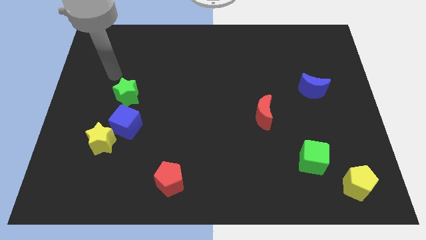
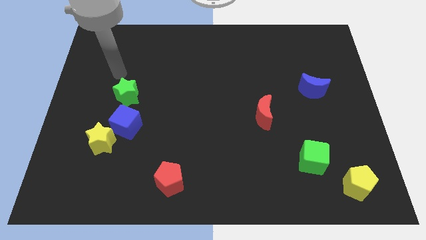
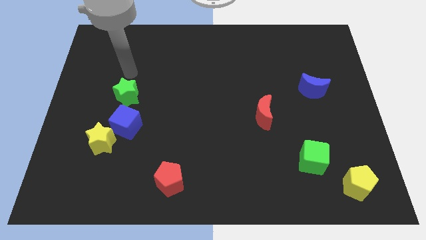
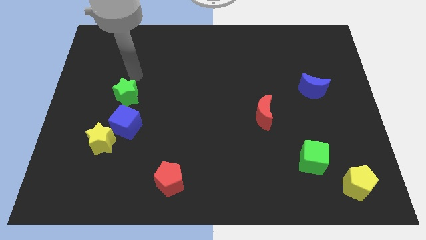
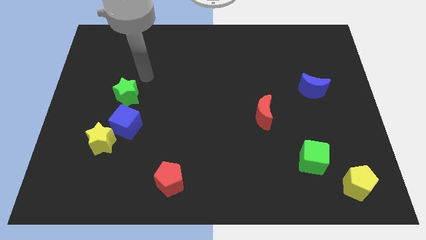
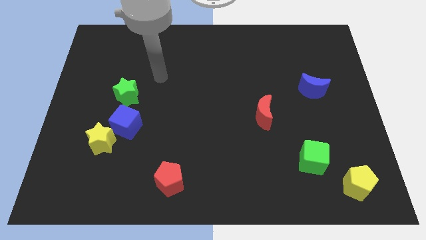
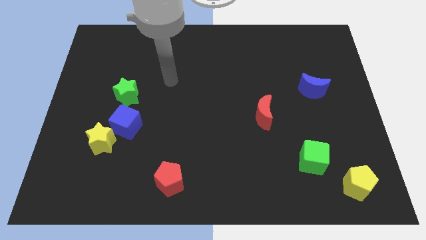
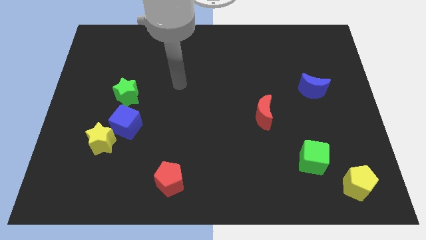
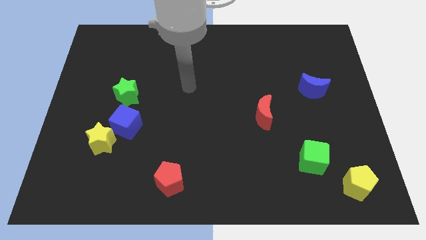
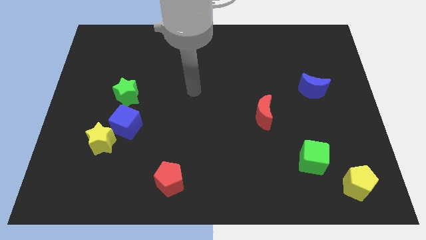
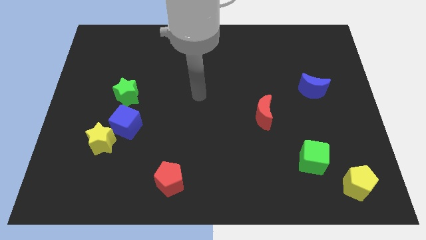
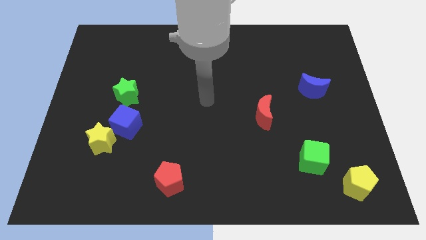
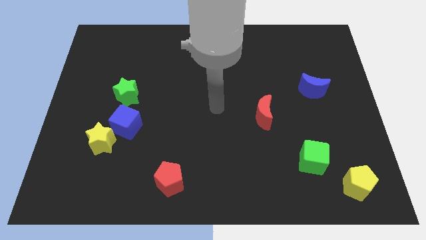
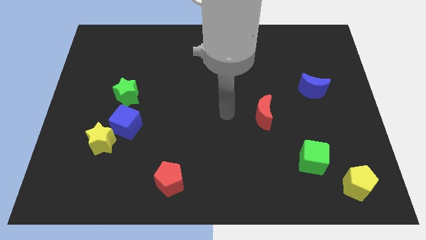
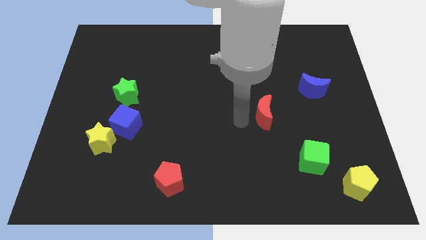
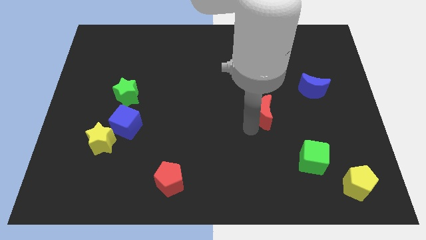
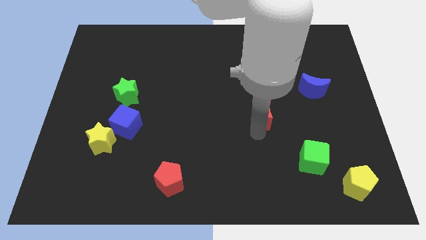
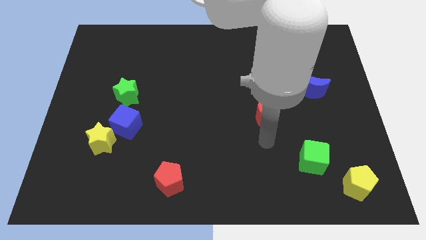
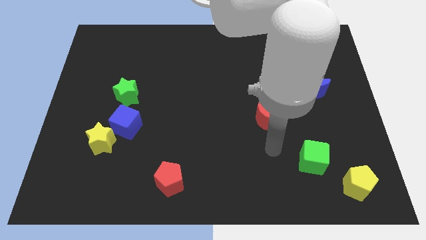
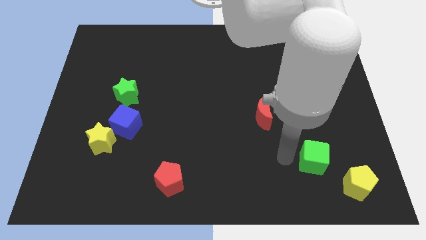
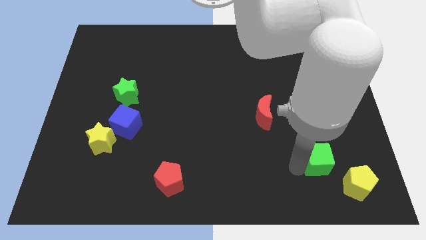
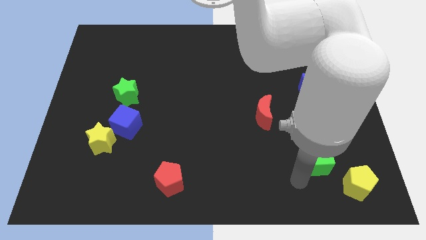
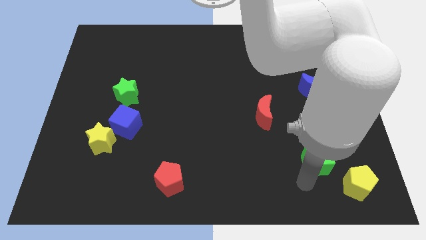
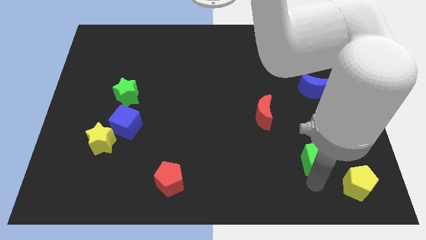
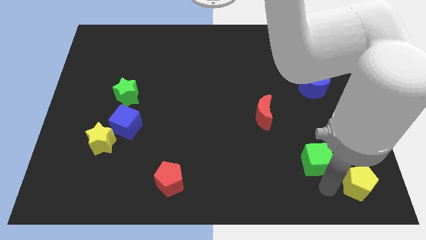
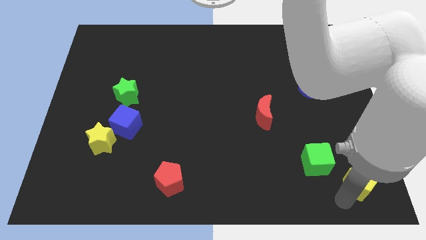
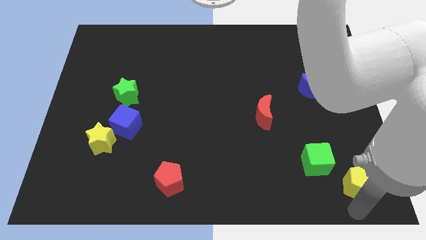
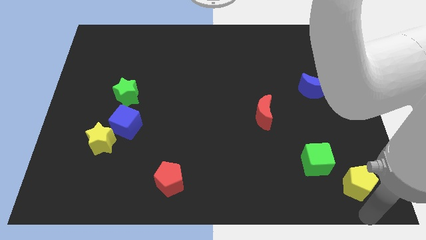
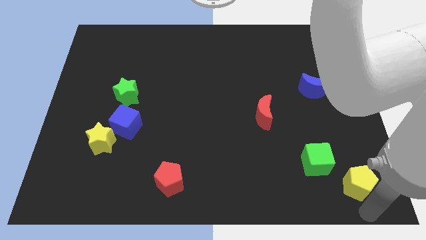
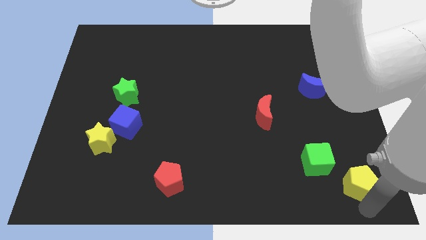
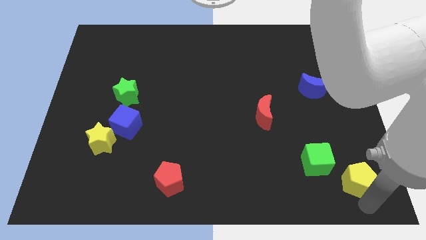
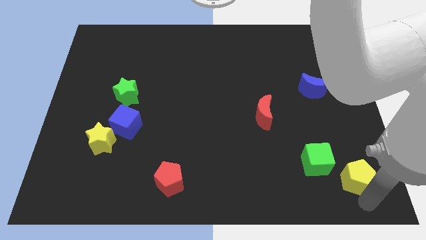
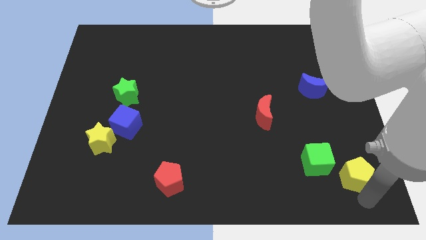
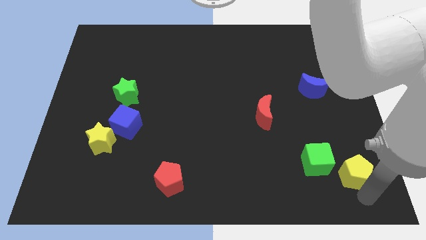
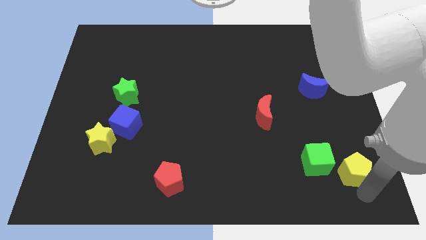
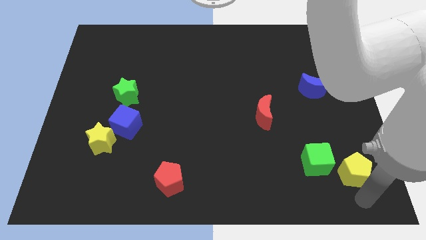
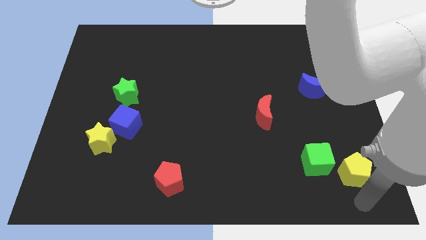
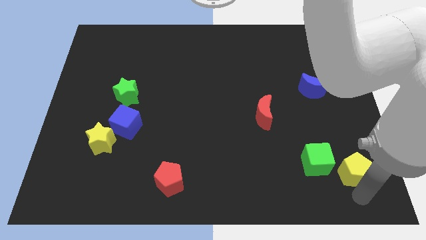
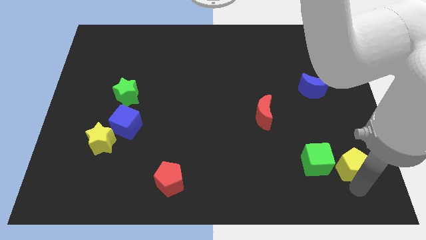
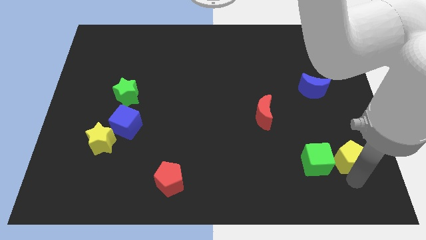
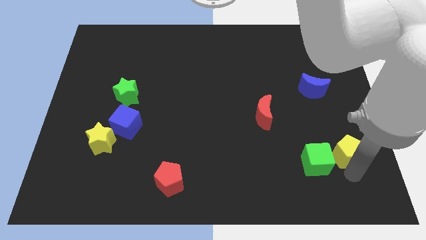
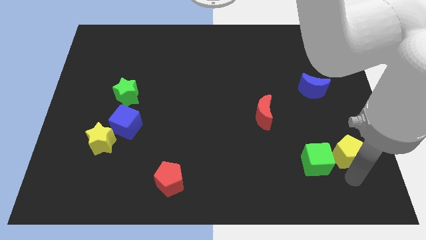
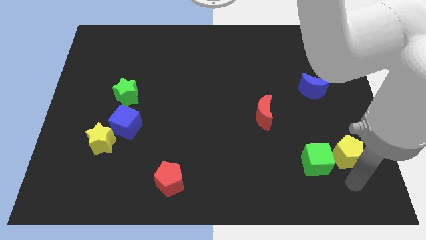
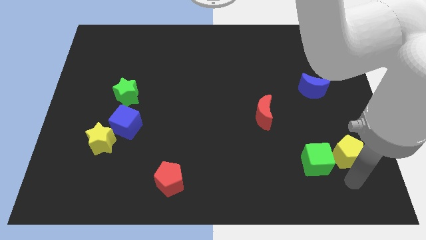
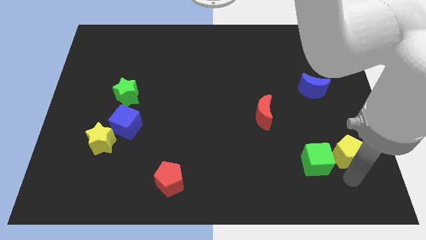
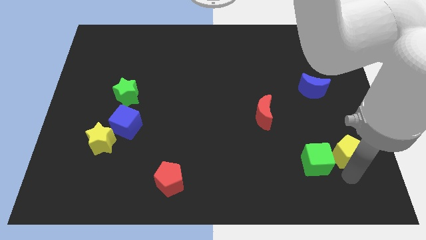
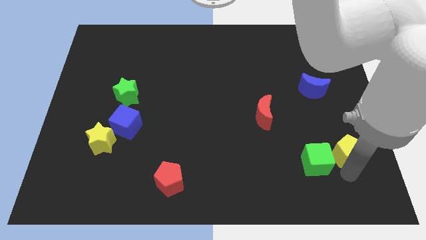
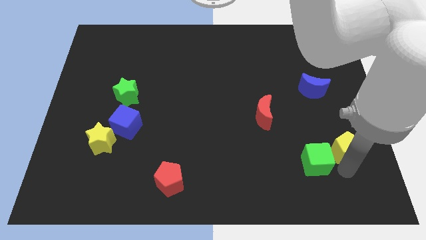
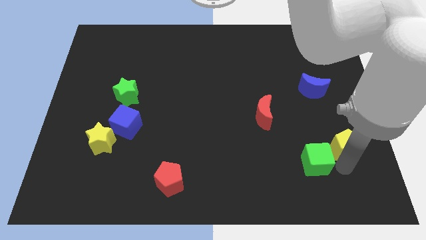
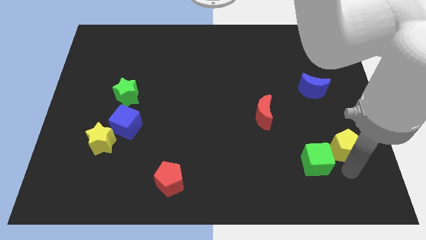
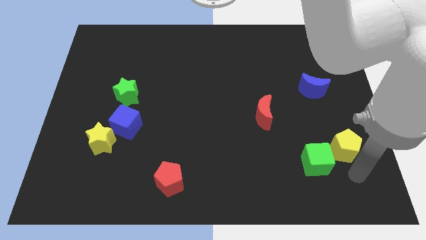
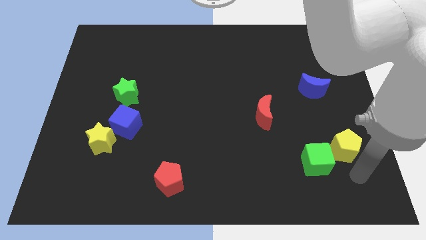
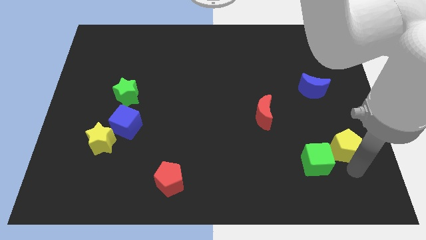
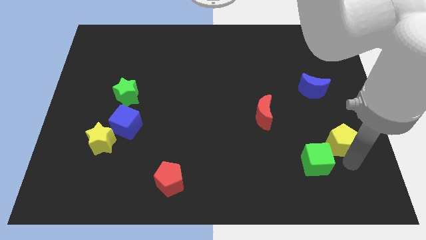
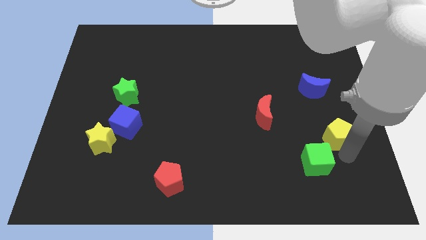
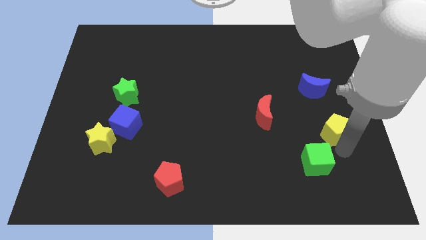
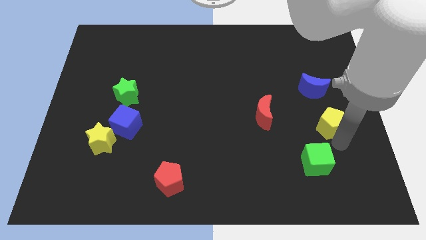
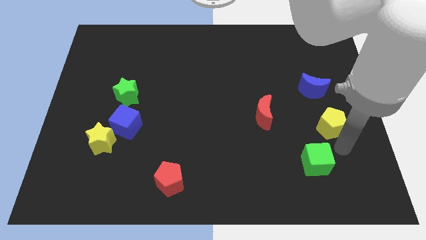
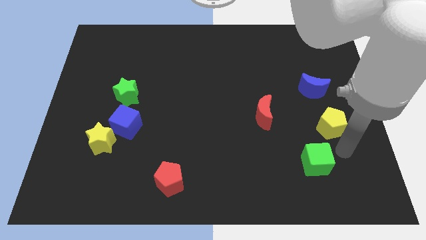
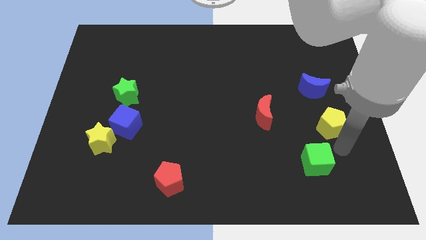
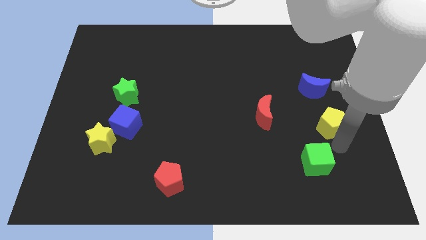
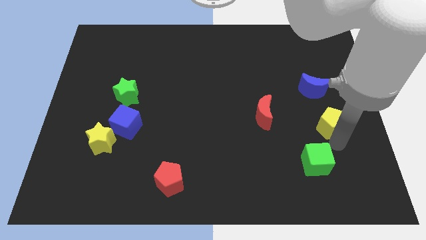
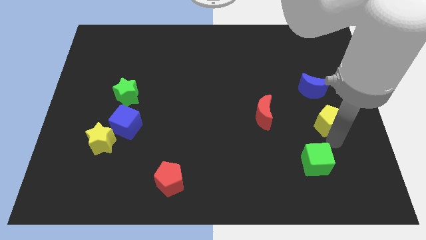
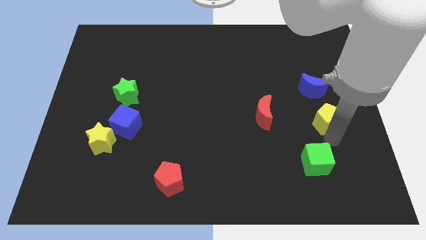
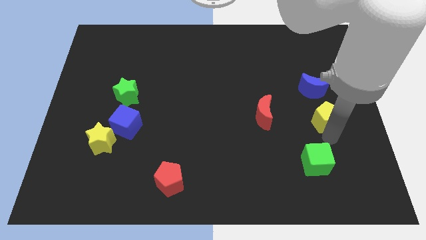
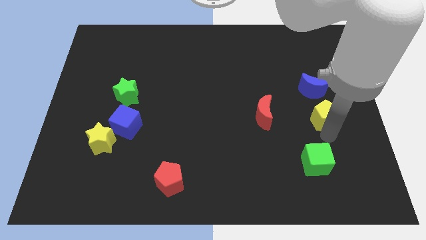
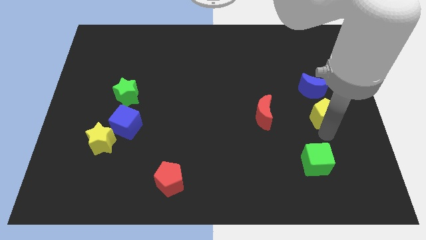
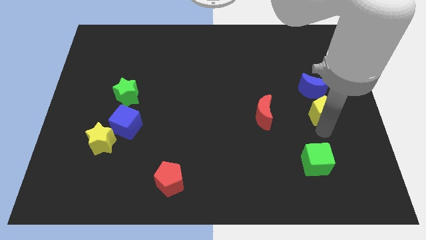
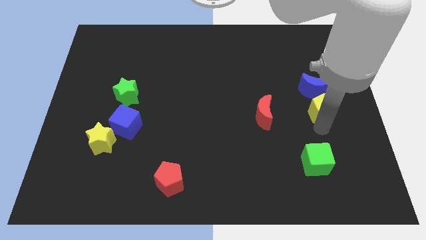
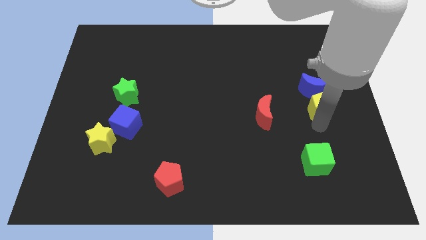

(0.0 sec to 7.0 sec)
move the yellow pentagon close to the blue moon

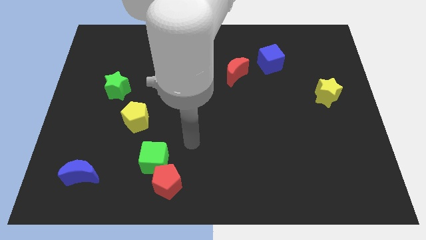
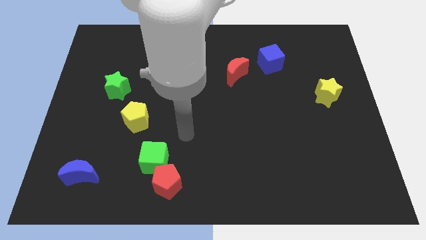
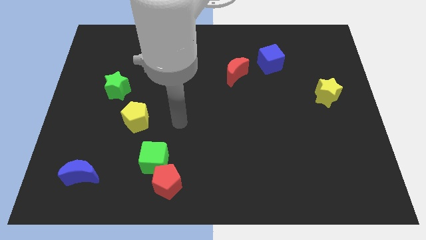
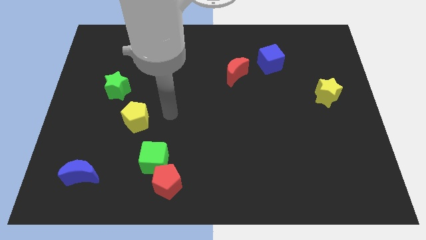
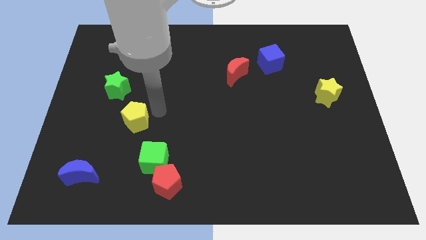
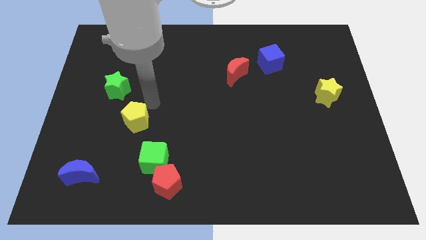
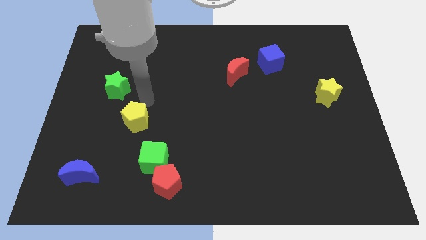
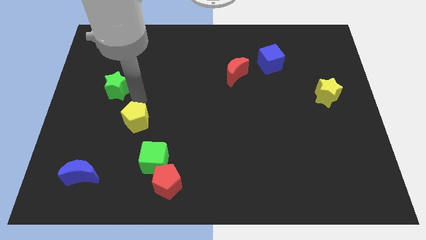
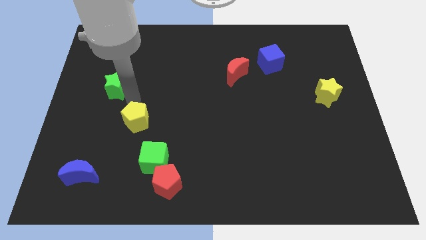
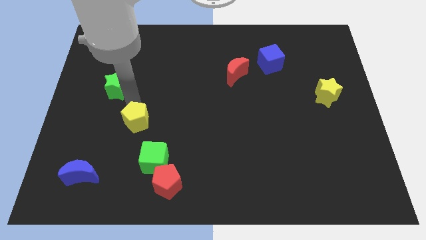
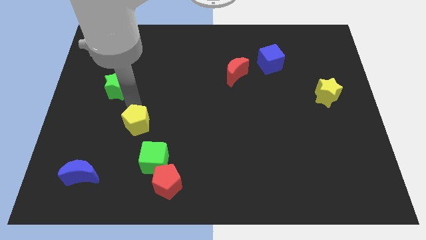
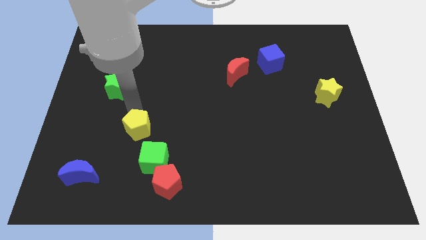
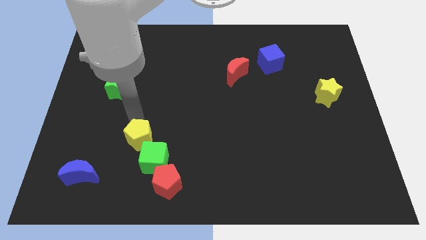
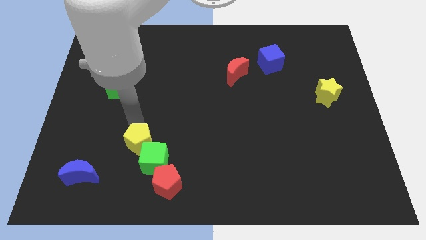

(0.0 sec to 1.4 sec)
slide the yellow pentagon close to the green cube
